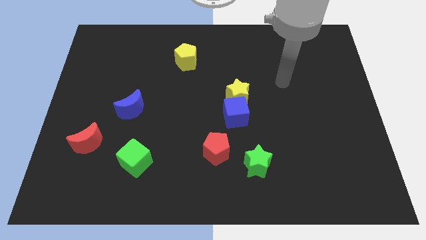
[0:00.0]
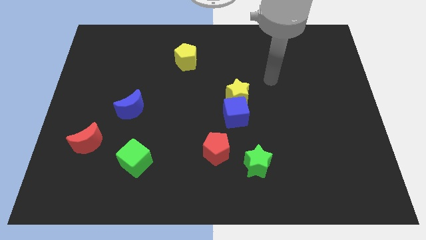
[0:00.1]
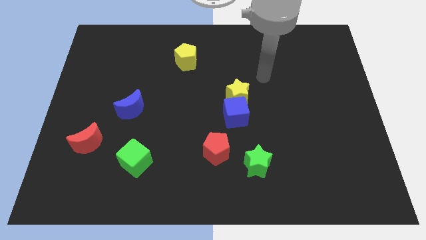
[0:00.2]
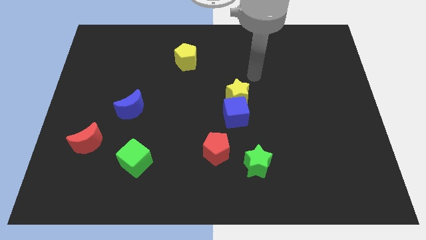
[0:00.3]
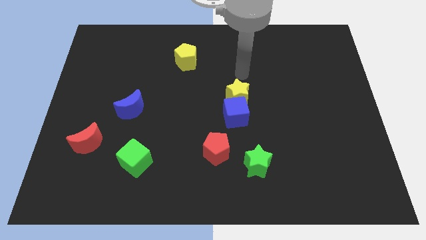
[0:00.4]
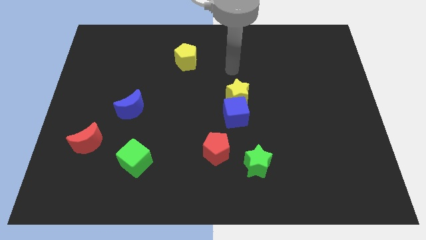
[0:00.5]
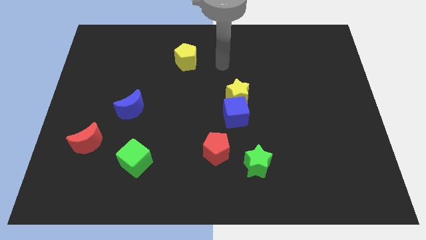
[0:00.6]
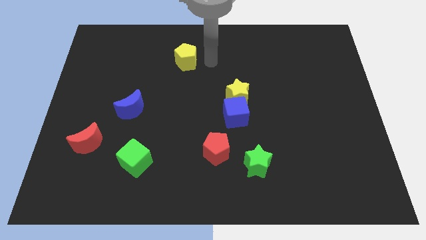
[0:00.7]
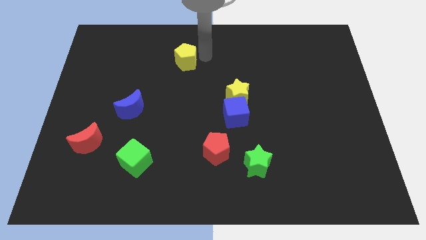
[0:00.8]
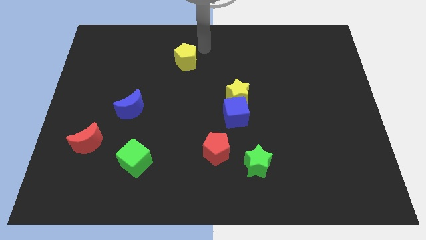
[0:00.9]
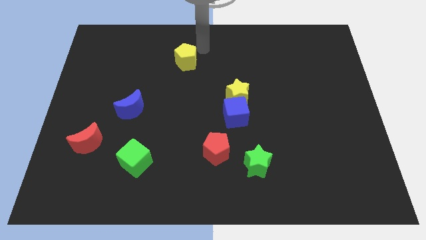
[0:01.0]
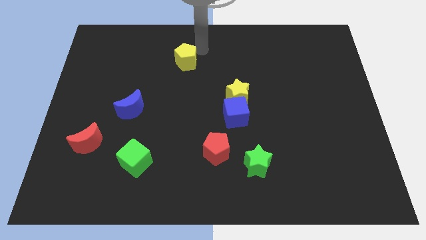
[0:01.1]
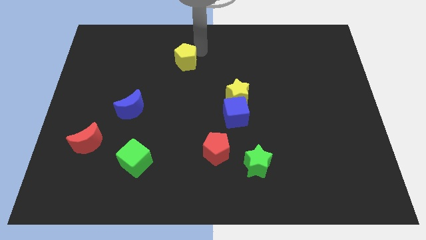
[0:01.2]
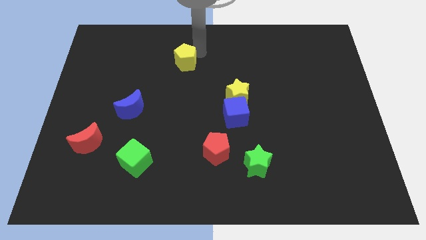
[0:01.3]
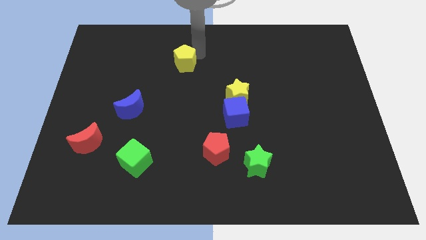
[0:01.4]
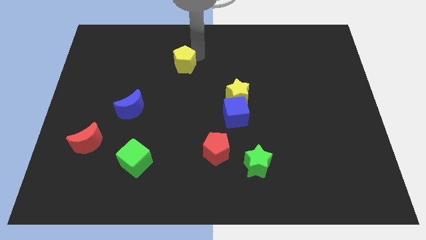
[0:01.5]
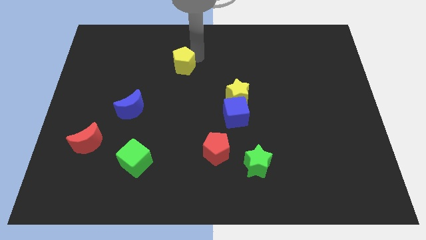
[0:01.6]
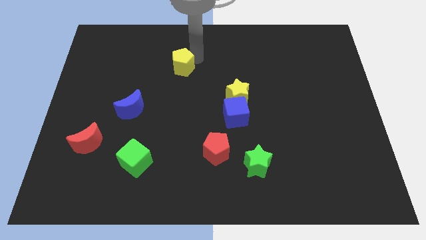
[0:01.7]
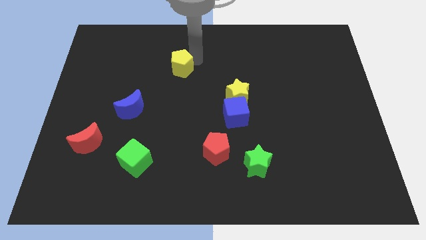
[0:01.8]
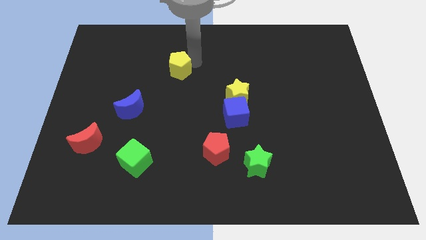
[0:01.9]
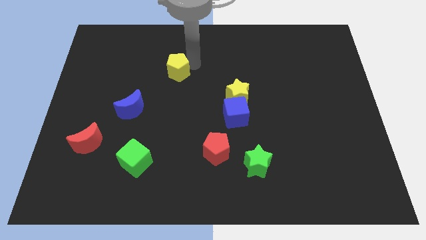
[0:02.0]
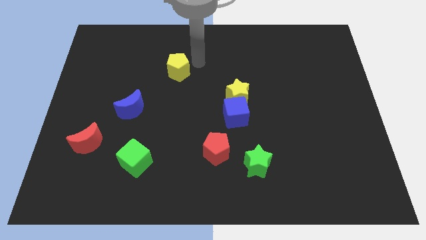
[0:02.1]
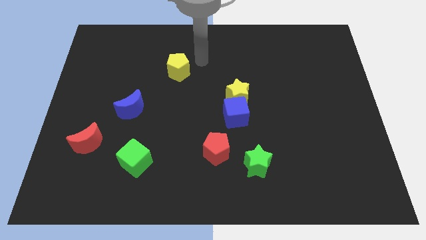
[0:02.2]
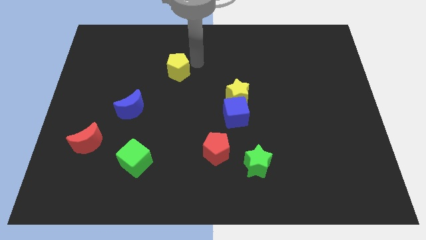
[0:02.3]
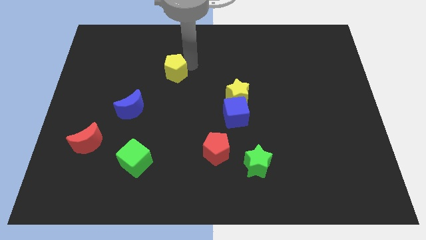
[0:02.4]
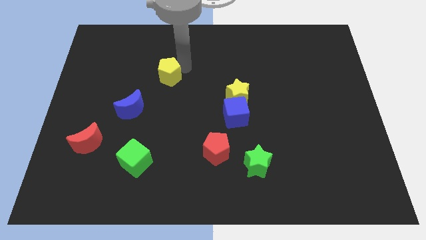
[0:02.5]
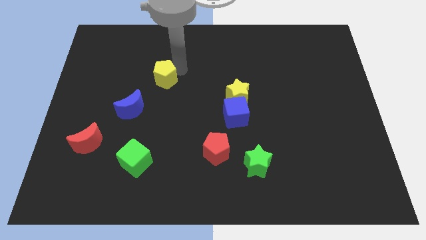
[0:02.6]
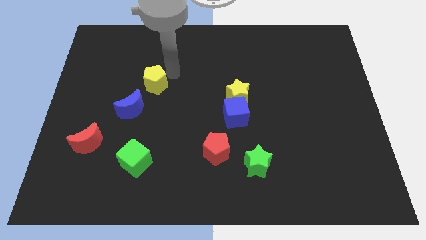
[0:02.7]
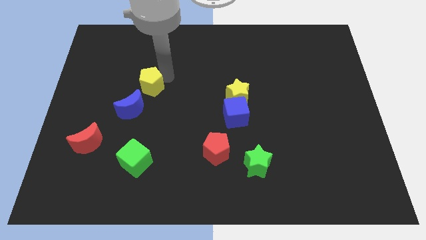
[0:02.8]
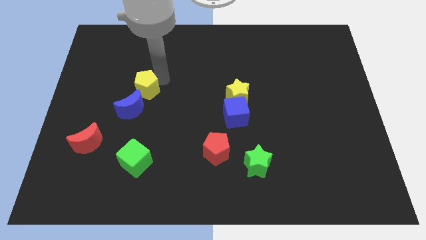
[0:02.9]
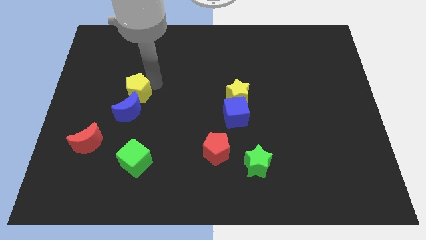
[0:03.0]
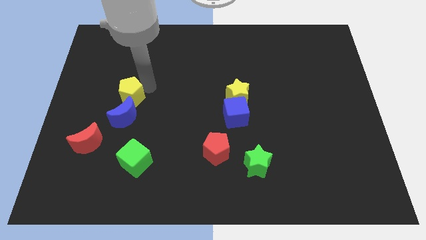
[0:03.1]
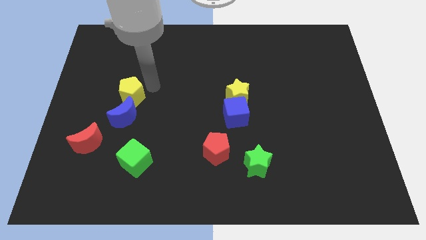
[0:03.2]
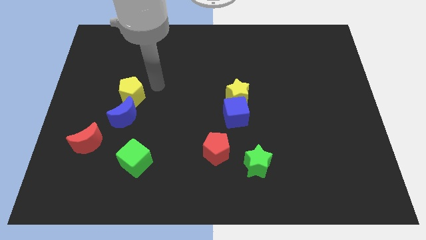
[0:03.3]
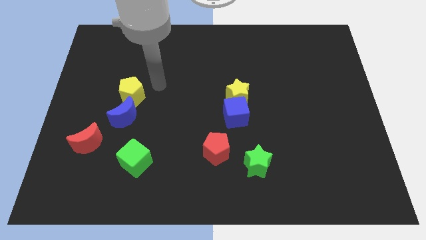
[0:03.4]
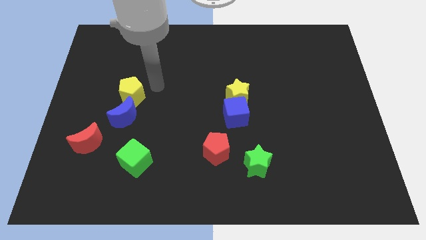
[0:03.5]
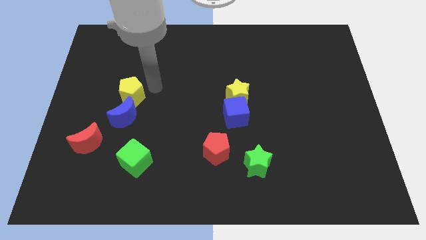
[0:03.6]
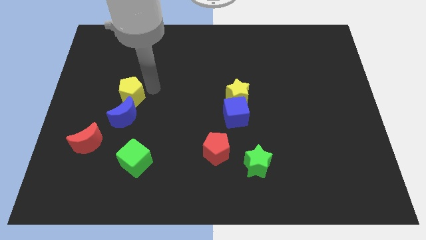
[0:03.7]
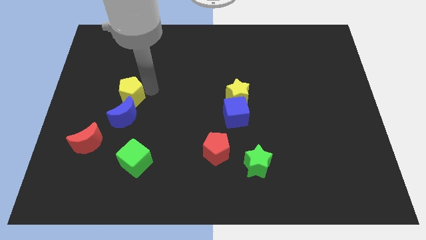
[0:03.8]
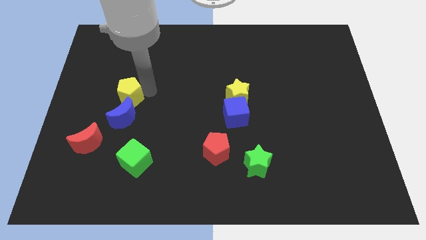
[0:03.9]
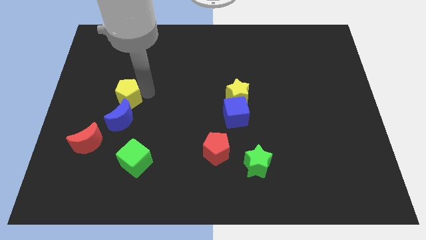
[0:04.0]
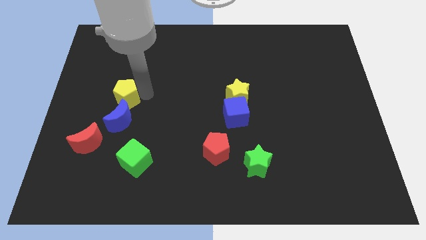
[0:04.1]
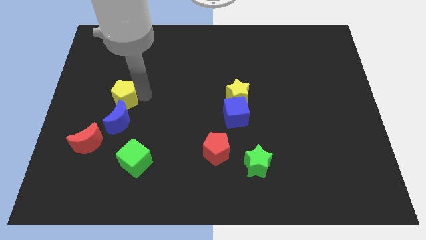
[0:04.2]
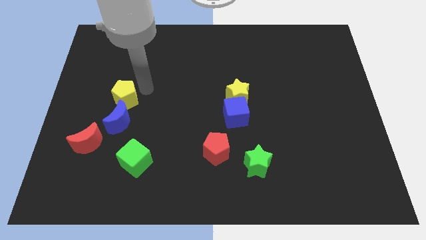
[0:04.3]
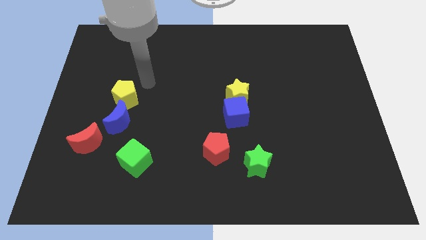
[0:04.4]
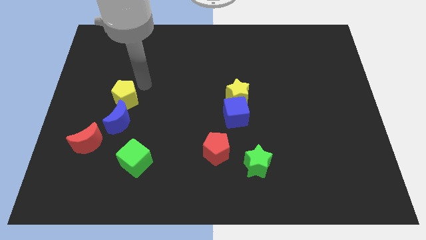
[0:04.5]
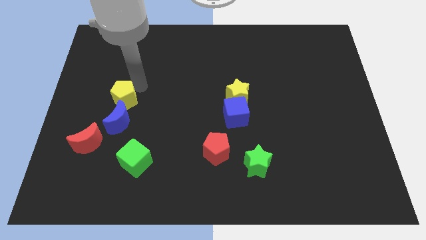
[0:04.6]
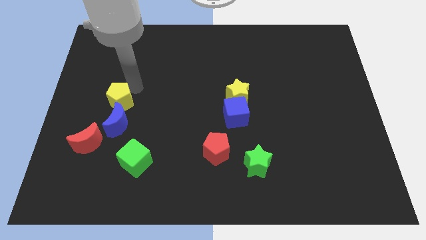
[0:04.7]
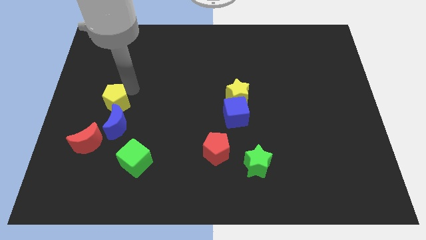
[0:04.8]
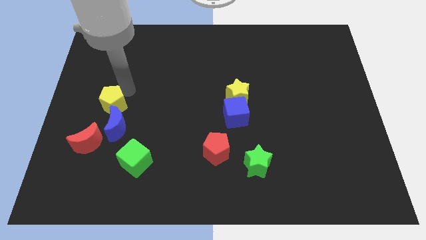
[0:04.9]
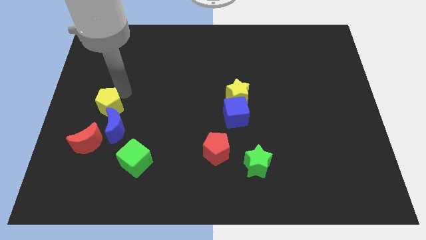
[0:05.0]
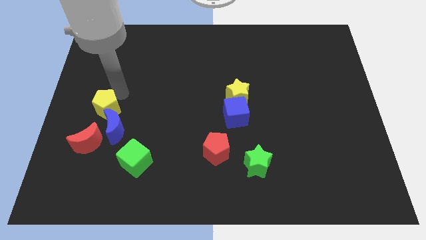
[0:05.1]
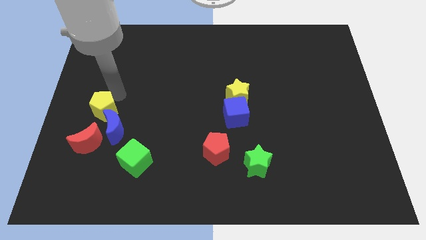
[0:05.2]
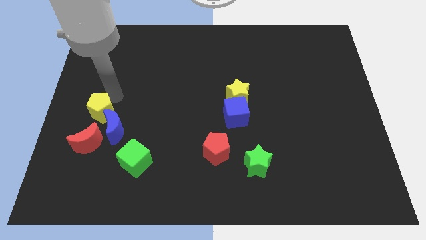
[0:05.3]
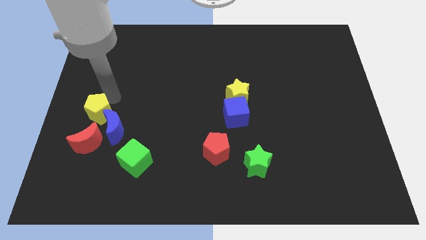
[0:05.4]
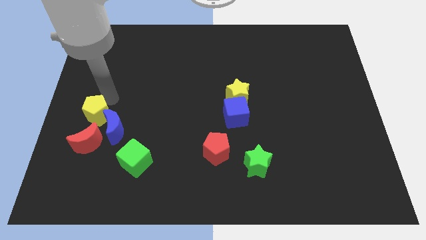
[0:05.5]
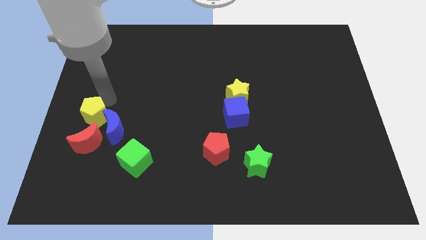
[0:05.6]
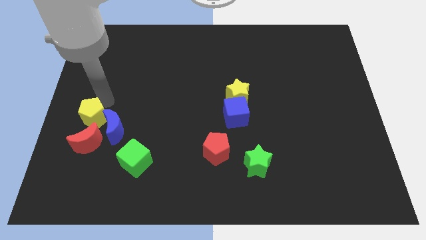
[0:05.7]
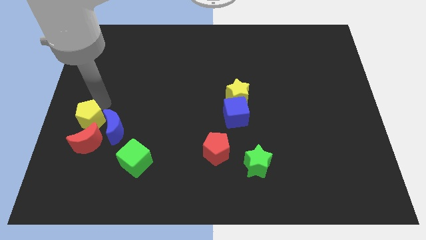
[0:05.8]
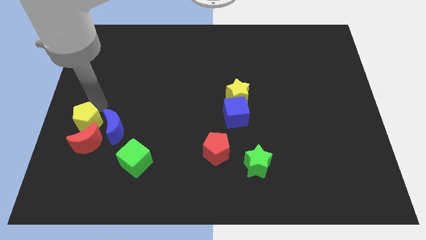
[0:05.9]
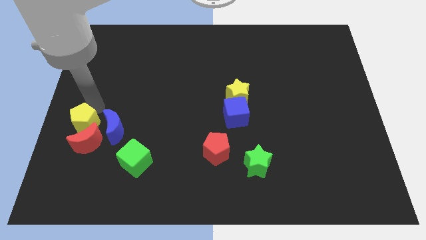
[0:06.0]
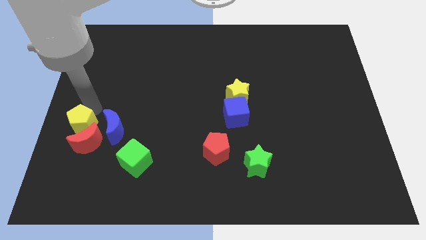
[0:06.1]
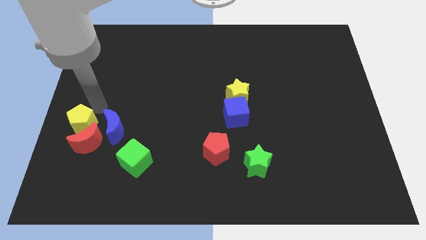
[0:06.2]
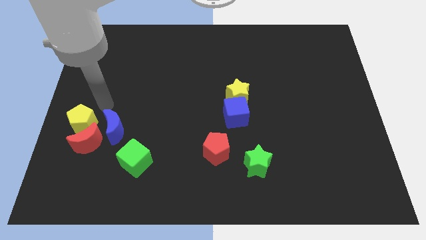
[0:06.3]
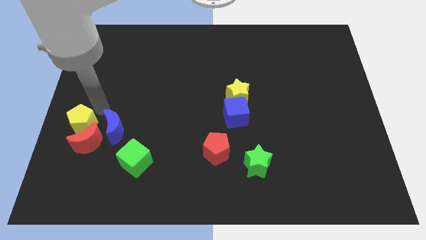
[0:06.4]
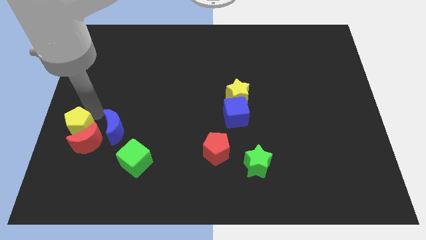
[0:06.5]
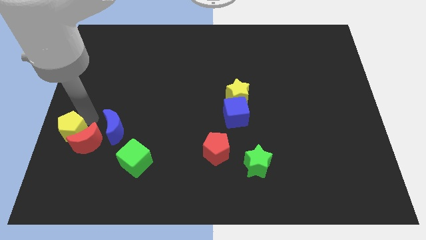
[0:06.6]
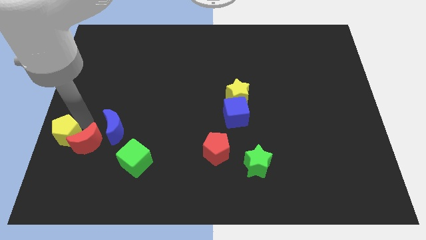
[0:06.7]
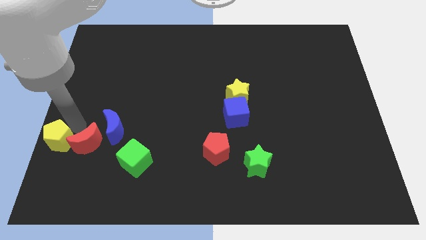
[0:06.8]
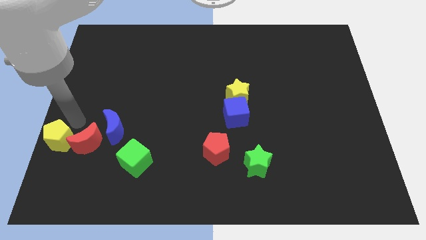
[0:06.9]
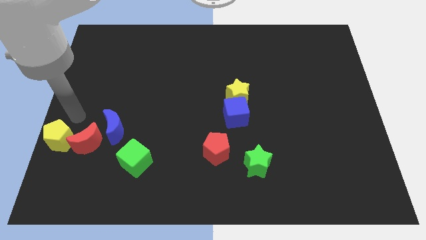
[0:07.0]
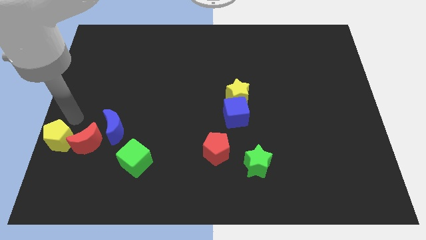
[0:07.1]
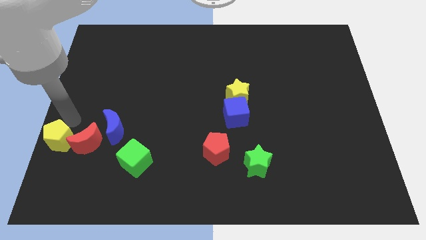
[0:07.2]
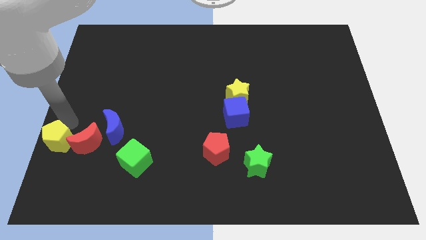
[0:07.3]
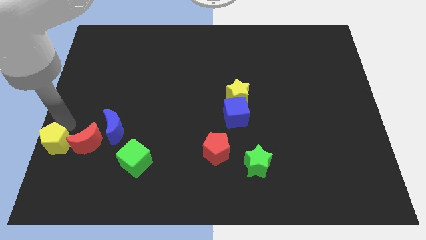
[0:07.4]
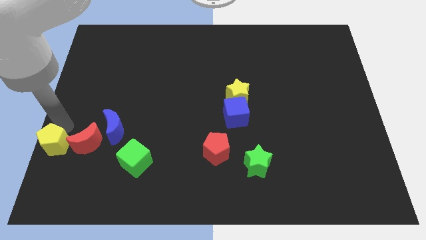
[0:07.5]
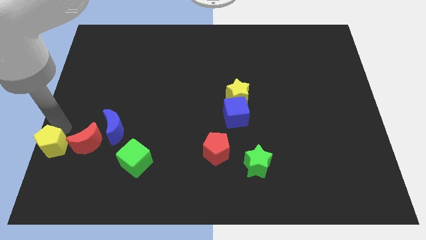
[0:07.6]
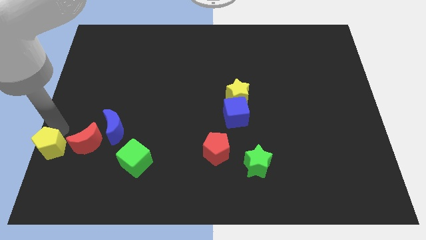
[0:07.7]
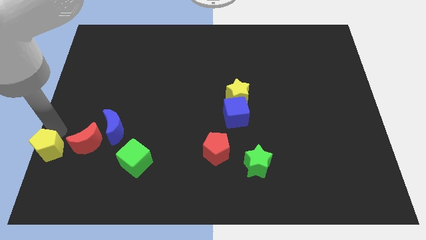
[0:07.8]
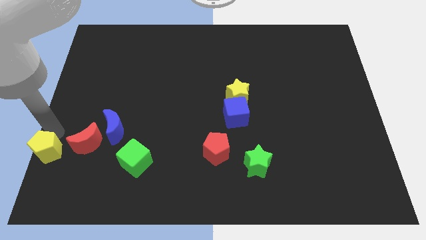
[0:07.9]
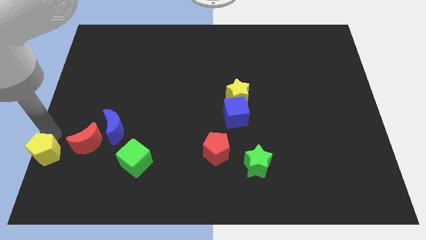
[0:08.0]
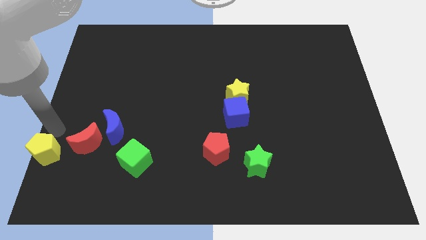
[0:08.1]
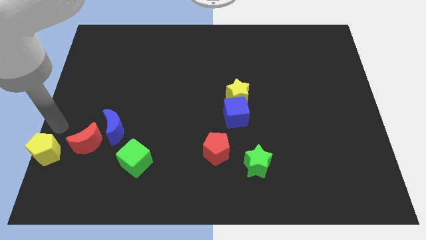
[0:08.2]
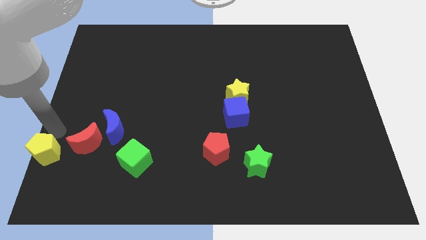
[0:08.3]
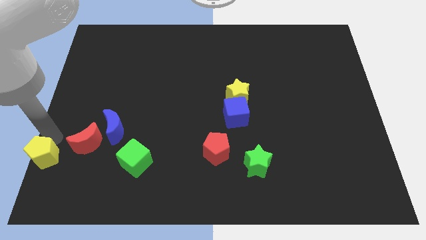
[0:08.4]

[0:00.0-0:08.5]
slide the yellow pentagon to the lower left corner
